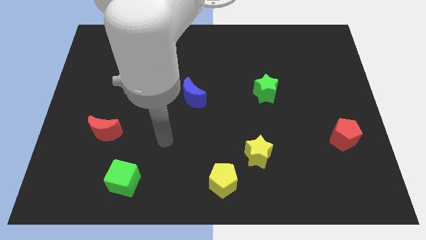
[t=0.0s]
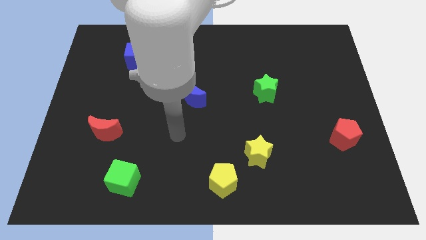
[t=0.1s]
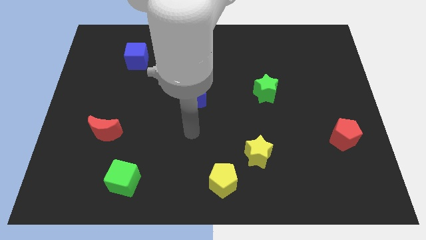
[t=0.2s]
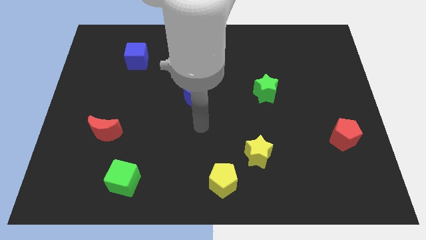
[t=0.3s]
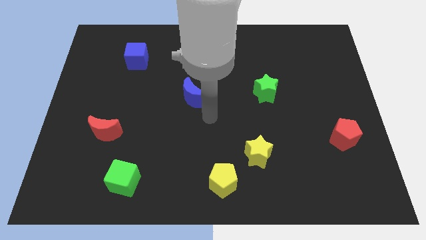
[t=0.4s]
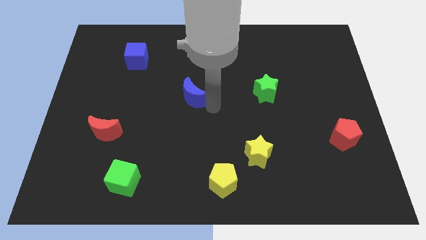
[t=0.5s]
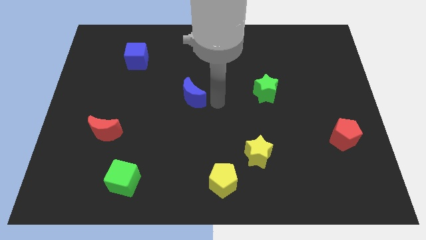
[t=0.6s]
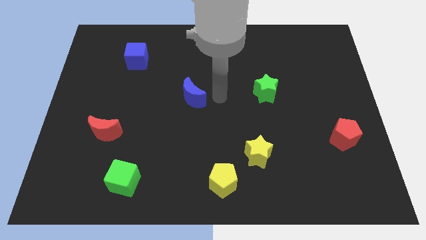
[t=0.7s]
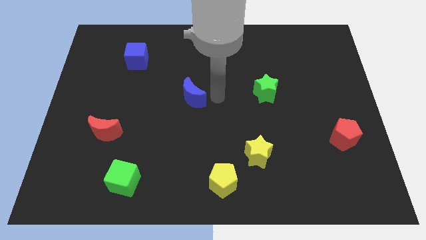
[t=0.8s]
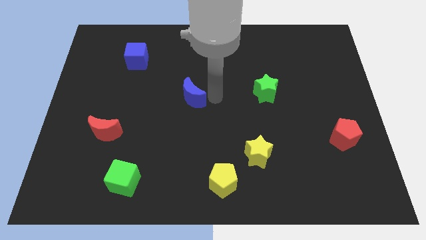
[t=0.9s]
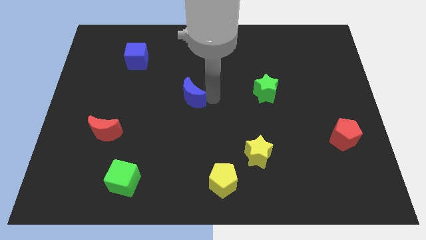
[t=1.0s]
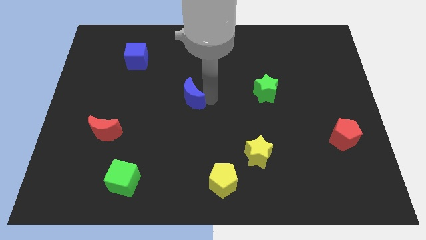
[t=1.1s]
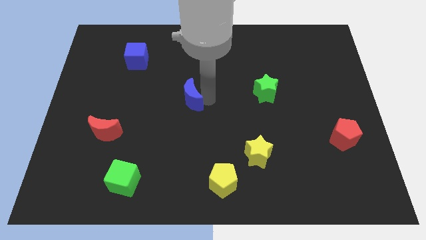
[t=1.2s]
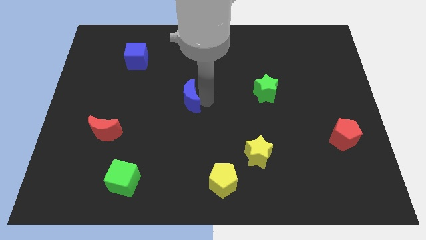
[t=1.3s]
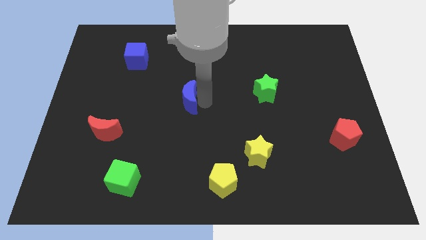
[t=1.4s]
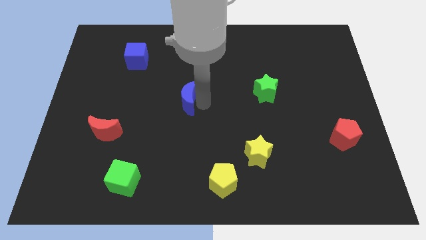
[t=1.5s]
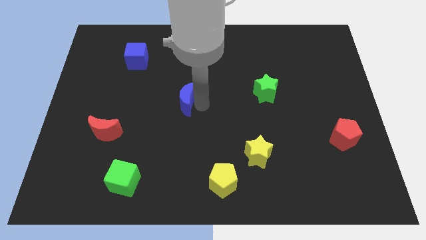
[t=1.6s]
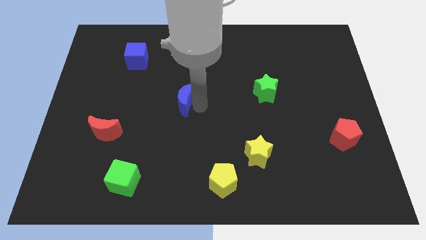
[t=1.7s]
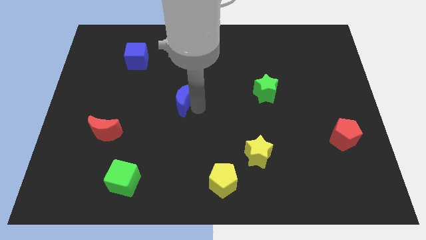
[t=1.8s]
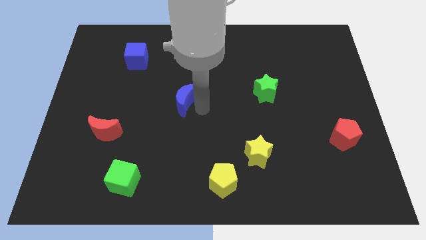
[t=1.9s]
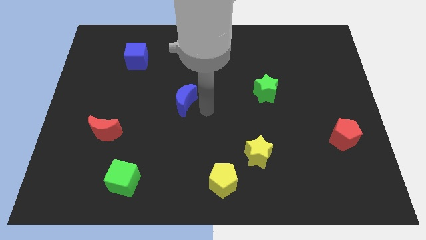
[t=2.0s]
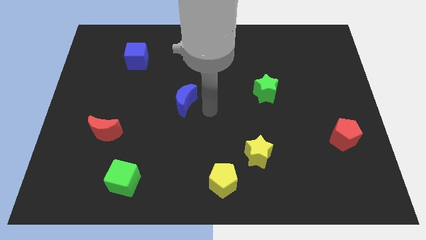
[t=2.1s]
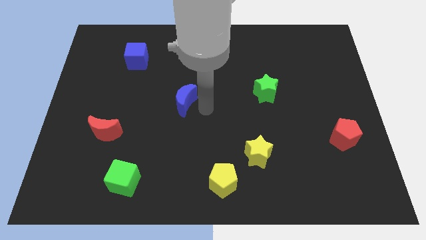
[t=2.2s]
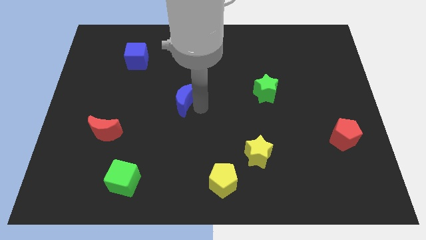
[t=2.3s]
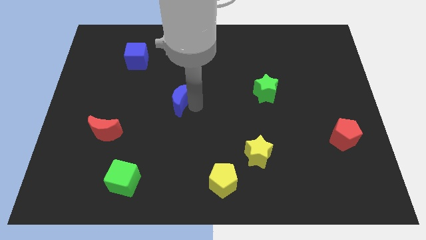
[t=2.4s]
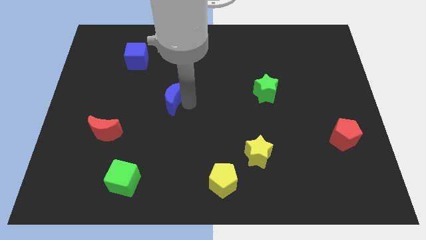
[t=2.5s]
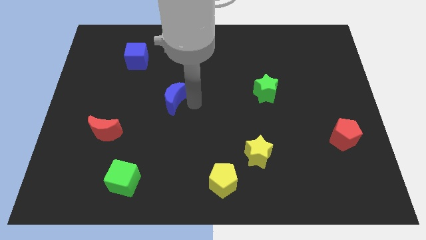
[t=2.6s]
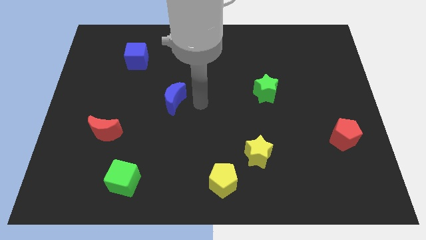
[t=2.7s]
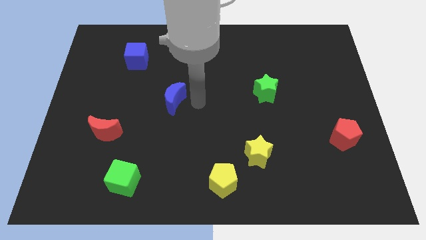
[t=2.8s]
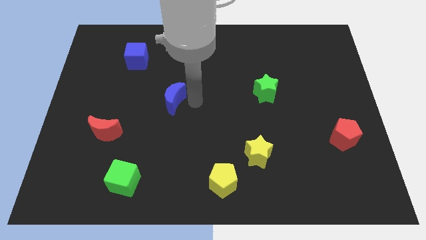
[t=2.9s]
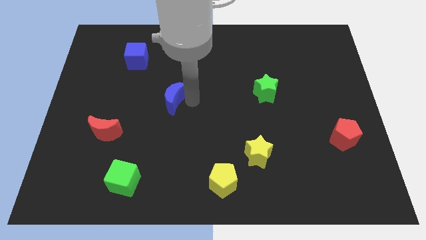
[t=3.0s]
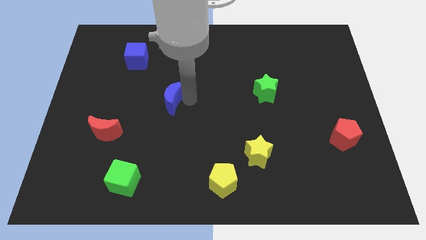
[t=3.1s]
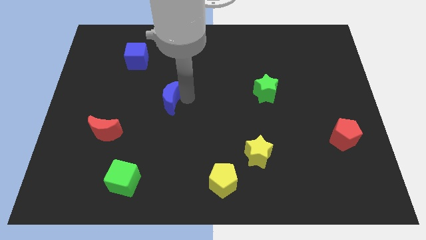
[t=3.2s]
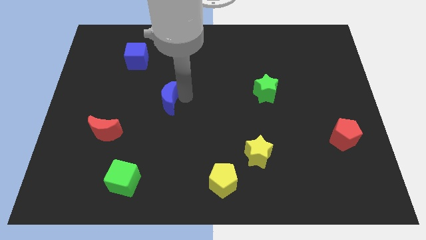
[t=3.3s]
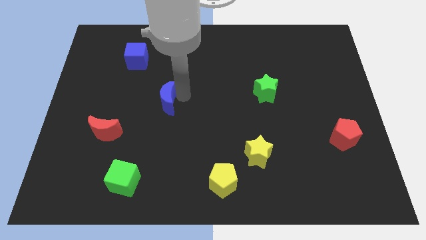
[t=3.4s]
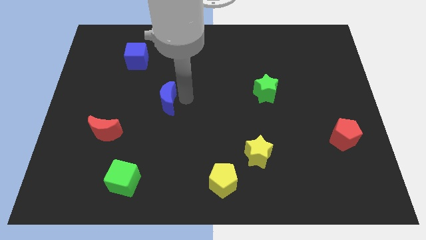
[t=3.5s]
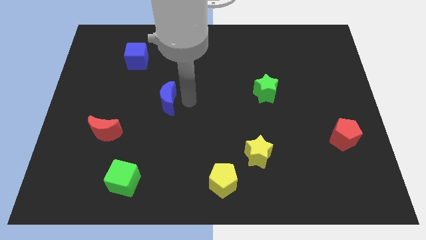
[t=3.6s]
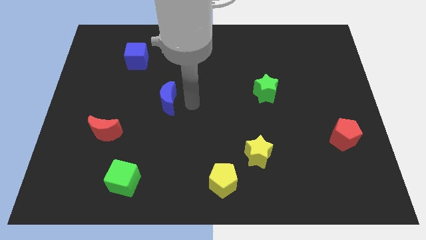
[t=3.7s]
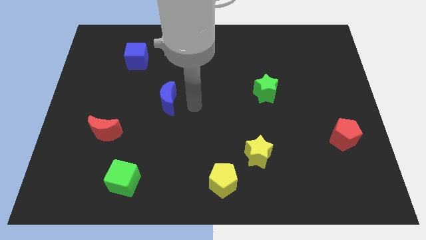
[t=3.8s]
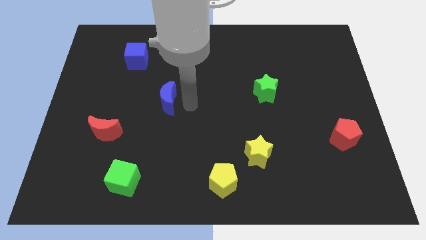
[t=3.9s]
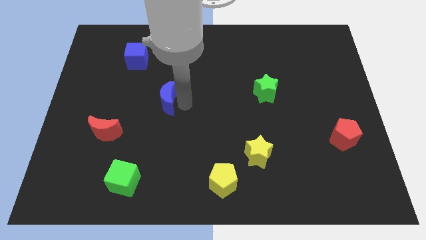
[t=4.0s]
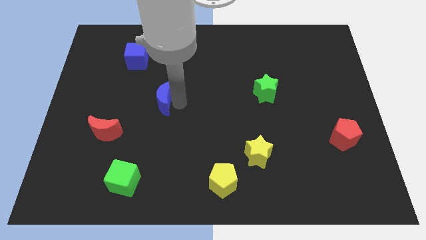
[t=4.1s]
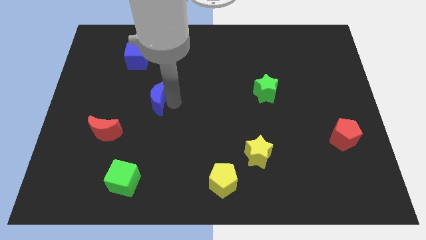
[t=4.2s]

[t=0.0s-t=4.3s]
slightly push the blue moon left

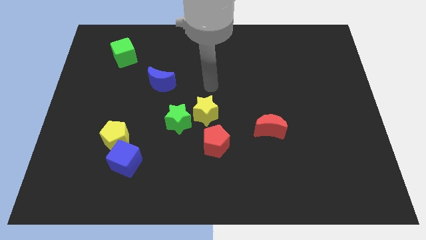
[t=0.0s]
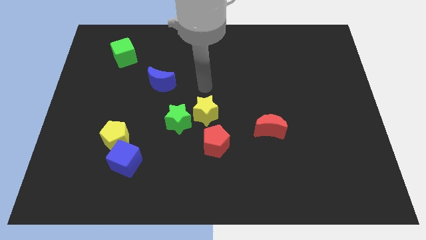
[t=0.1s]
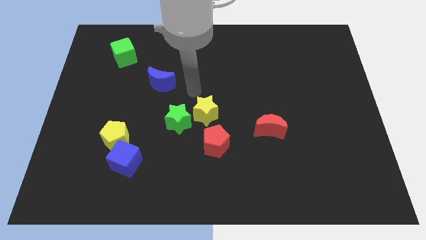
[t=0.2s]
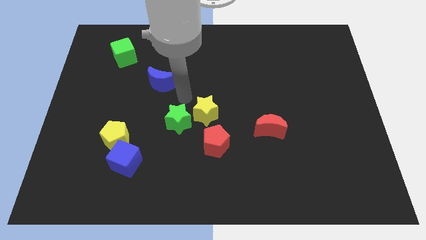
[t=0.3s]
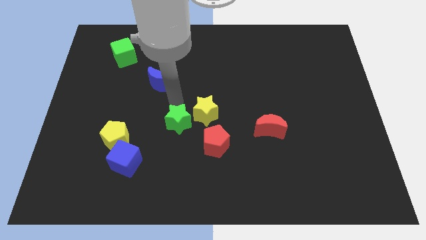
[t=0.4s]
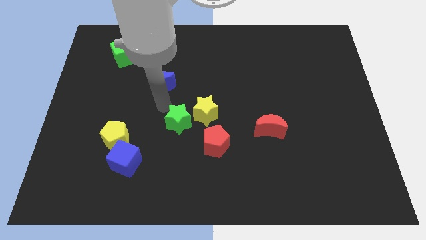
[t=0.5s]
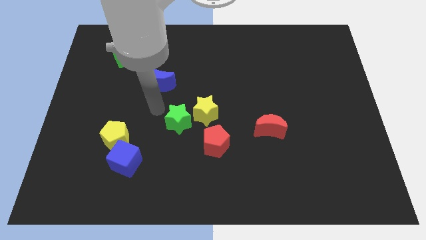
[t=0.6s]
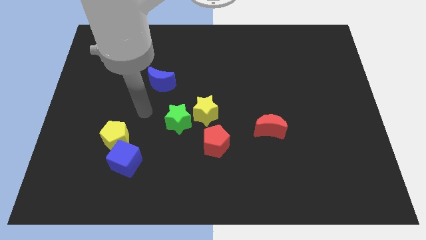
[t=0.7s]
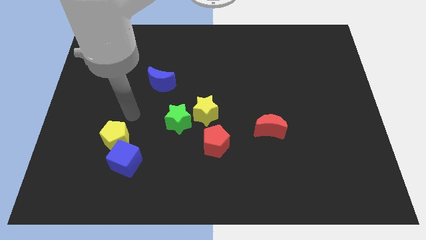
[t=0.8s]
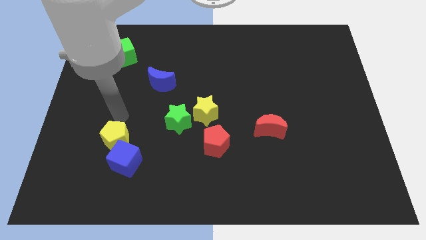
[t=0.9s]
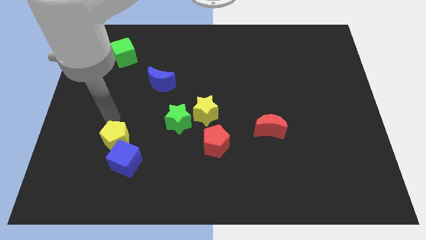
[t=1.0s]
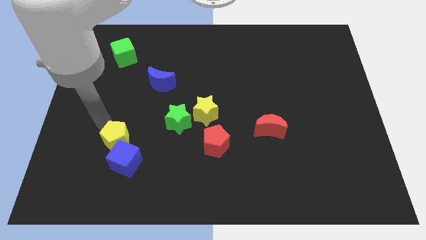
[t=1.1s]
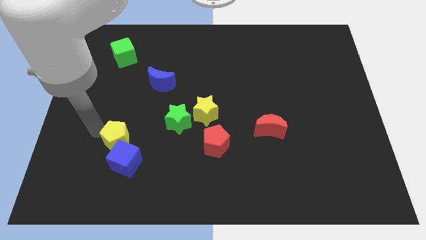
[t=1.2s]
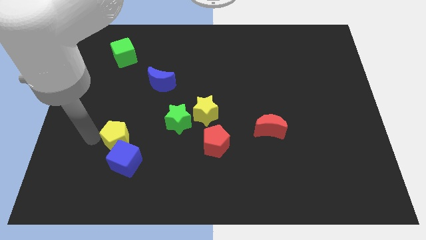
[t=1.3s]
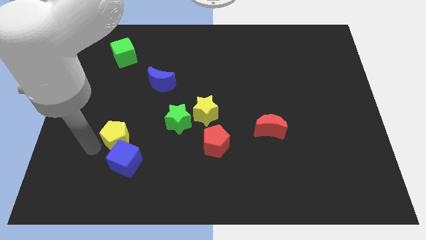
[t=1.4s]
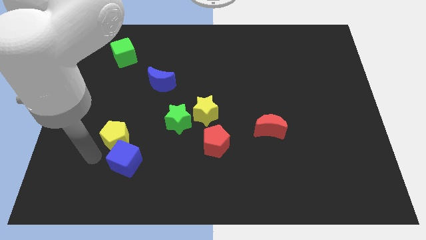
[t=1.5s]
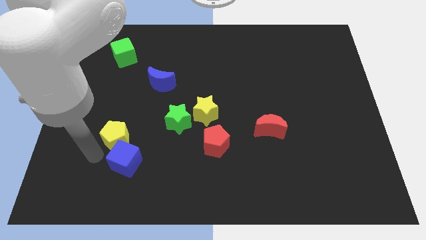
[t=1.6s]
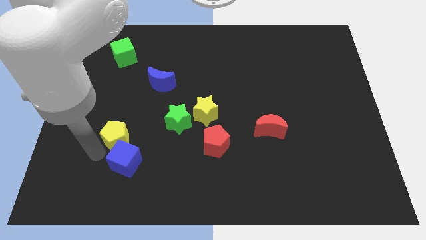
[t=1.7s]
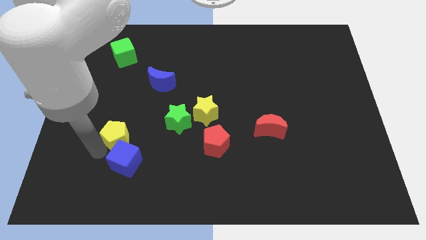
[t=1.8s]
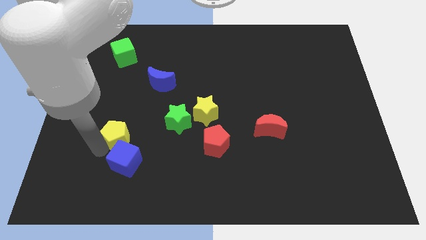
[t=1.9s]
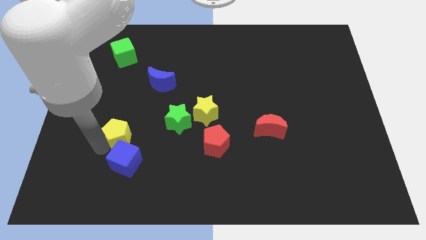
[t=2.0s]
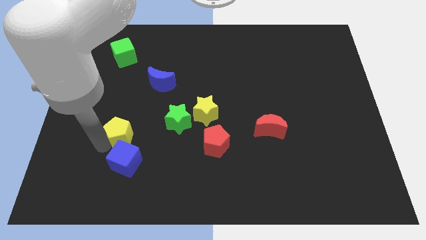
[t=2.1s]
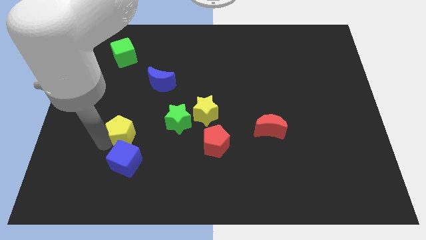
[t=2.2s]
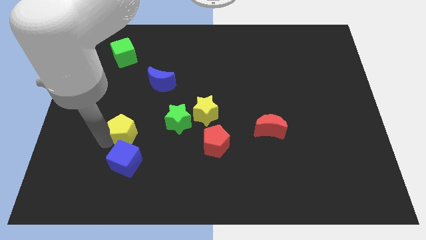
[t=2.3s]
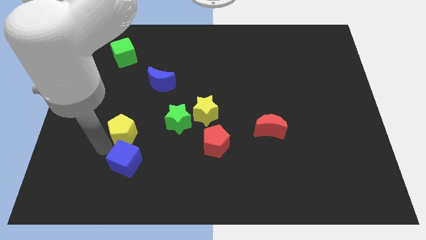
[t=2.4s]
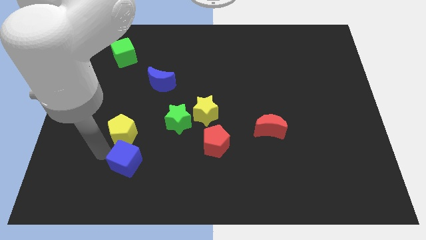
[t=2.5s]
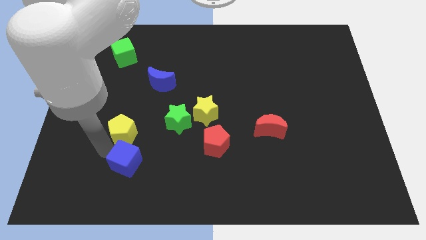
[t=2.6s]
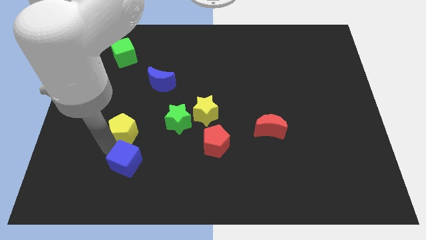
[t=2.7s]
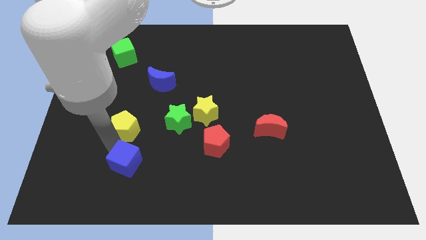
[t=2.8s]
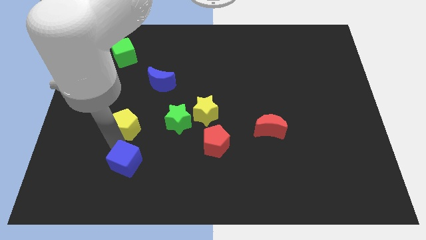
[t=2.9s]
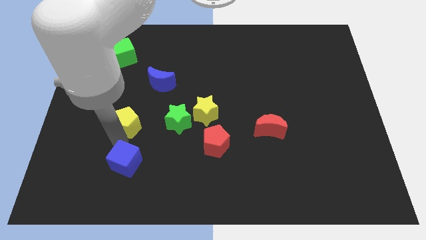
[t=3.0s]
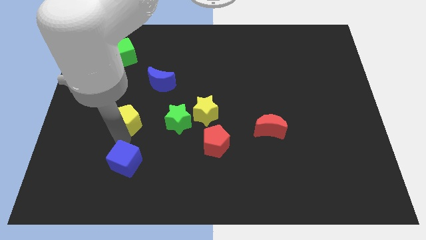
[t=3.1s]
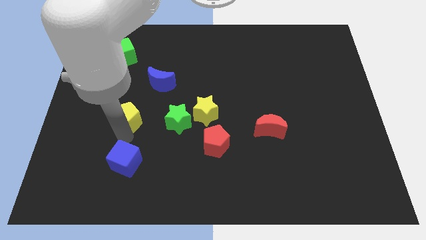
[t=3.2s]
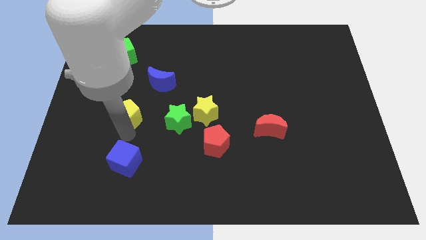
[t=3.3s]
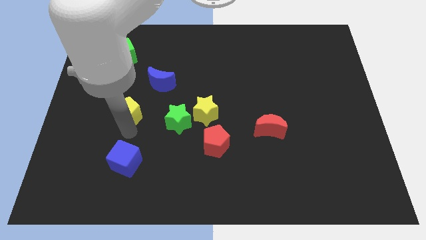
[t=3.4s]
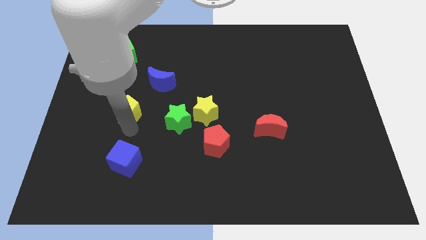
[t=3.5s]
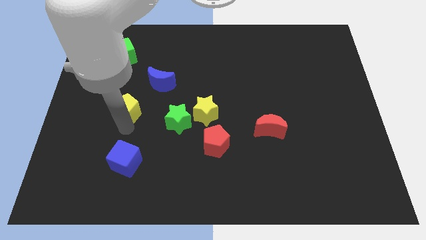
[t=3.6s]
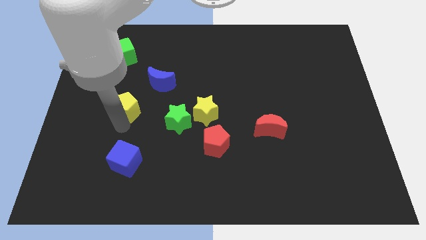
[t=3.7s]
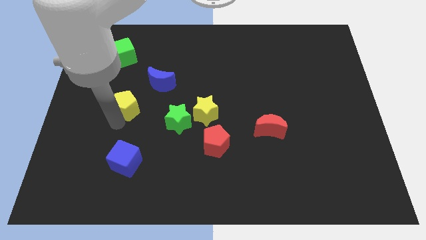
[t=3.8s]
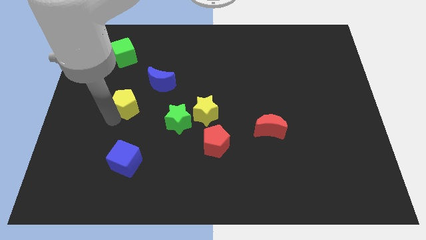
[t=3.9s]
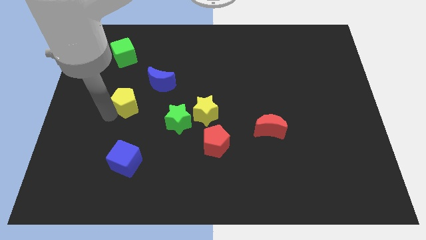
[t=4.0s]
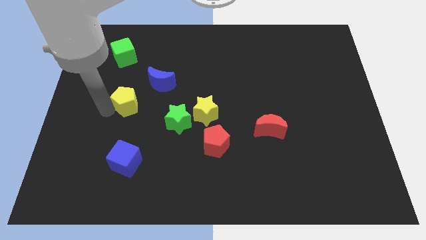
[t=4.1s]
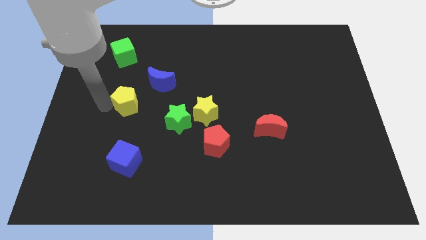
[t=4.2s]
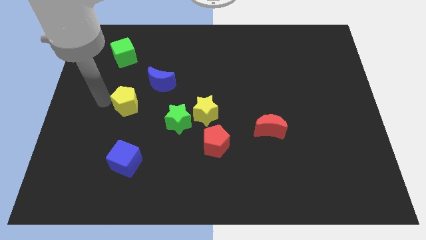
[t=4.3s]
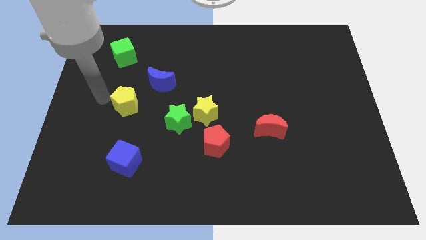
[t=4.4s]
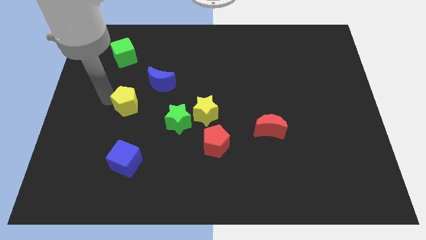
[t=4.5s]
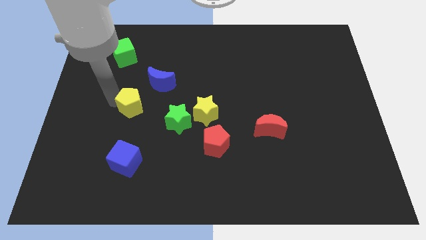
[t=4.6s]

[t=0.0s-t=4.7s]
slide the yellow pentagon upwards and to the right diagonally slightly
